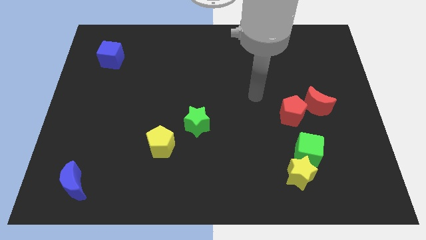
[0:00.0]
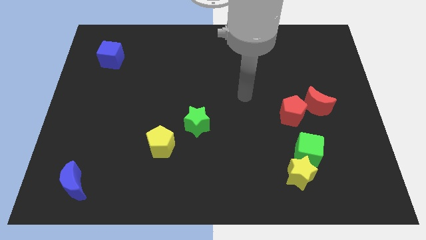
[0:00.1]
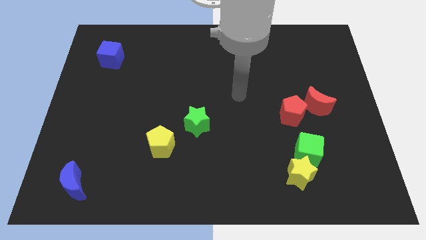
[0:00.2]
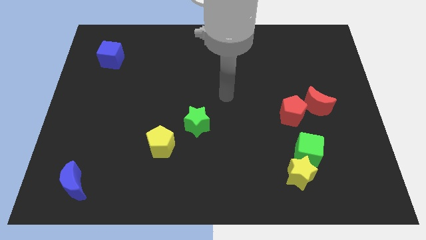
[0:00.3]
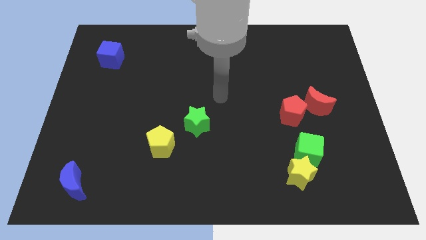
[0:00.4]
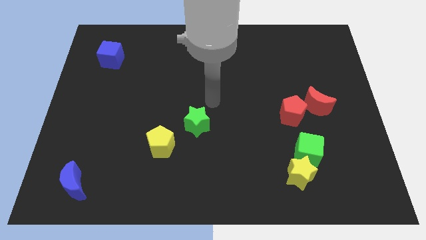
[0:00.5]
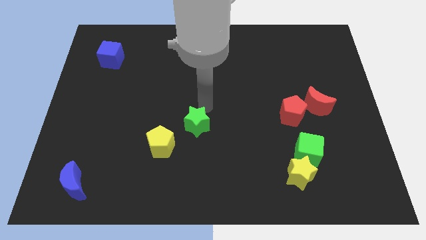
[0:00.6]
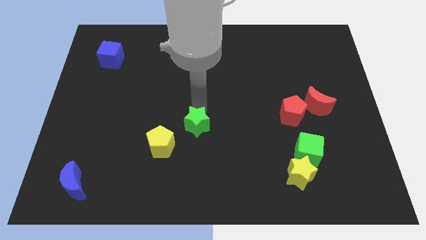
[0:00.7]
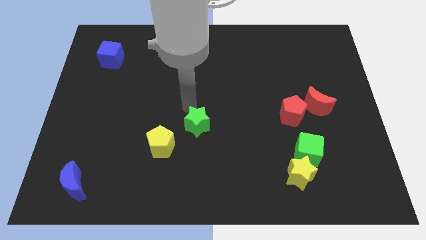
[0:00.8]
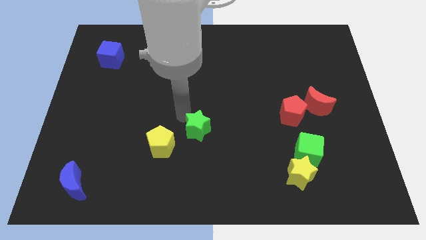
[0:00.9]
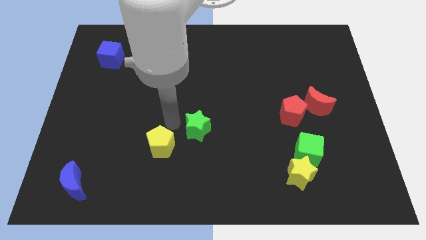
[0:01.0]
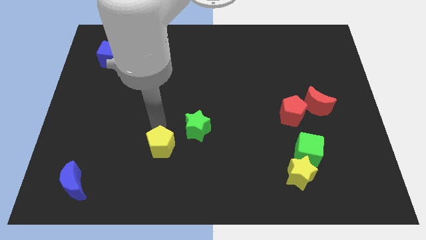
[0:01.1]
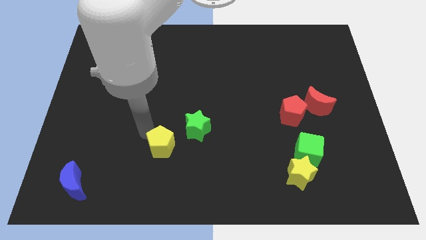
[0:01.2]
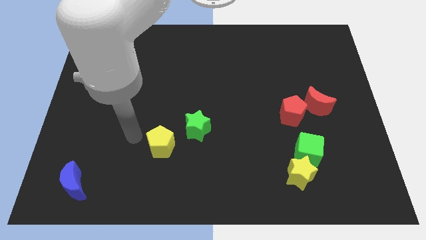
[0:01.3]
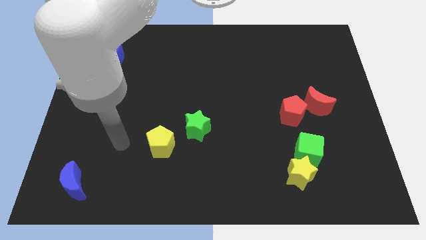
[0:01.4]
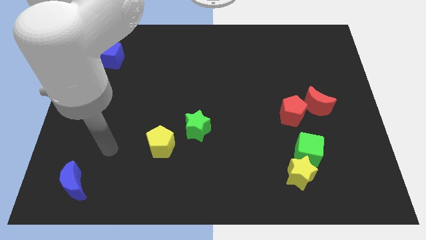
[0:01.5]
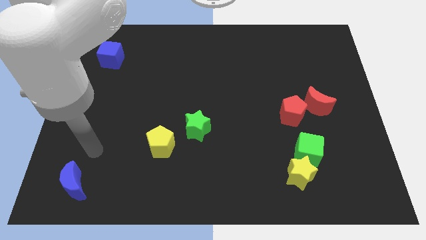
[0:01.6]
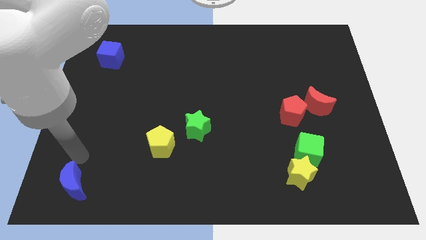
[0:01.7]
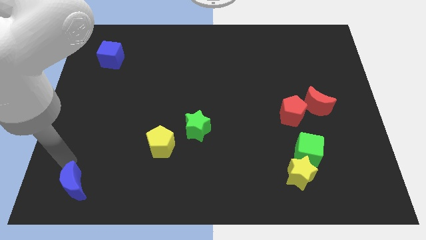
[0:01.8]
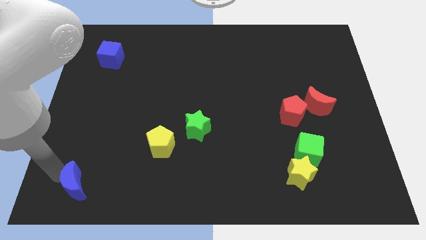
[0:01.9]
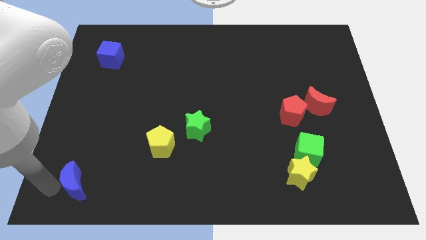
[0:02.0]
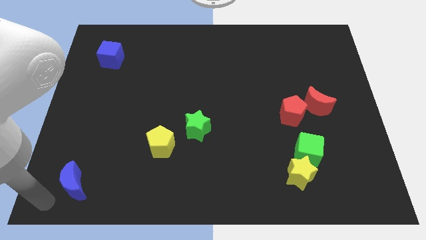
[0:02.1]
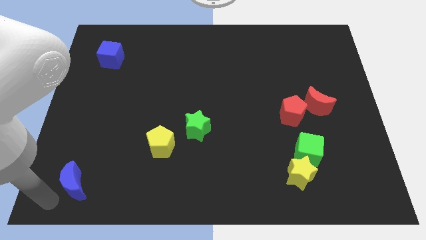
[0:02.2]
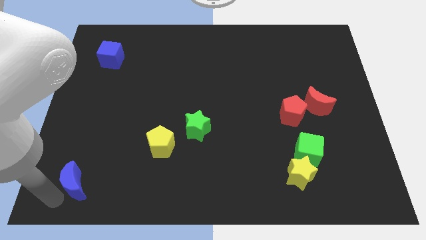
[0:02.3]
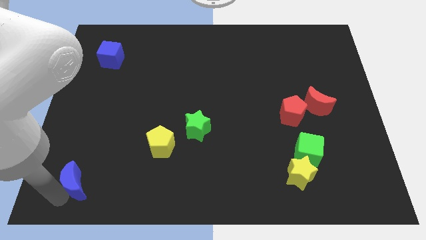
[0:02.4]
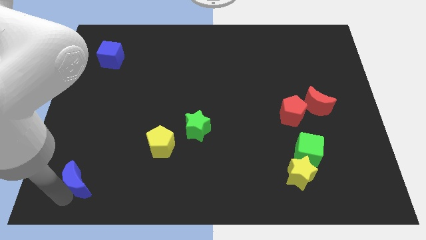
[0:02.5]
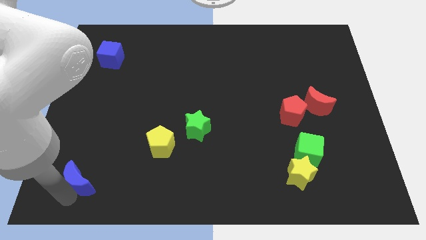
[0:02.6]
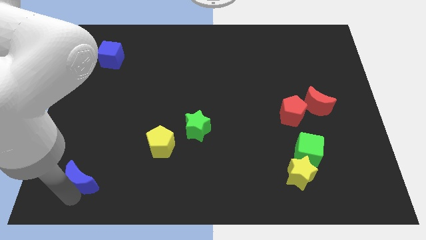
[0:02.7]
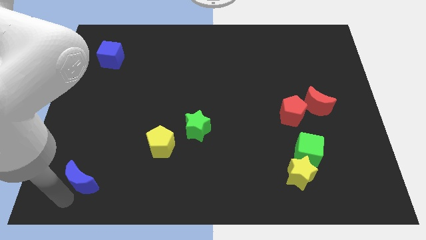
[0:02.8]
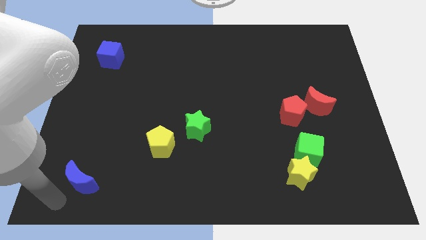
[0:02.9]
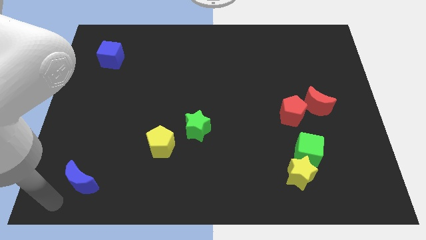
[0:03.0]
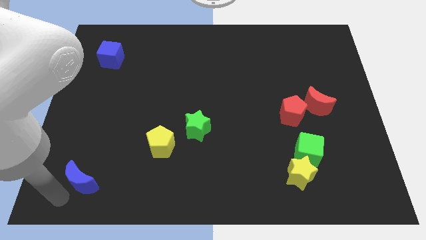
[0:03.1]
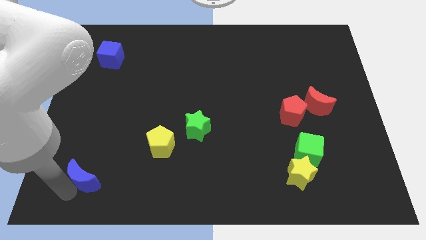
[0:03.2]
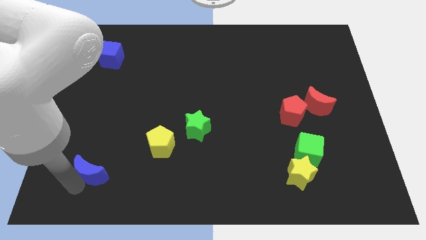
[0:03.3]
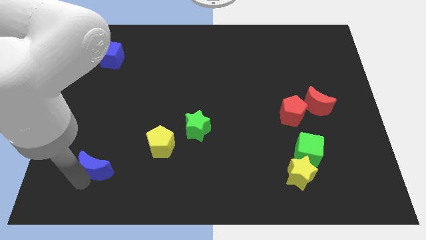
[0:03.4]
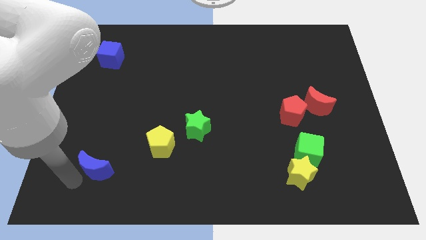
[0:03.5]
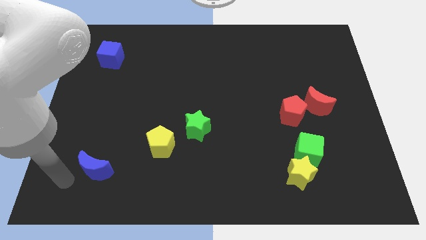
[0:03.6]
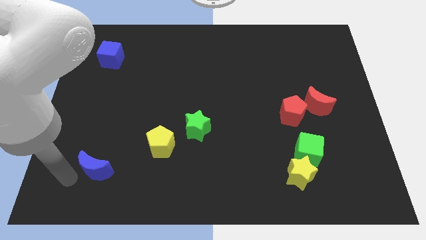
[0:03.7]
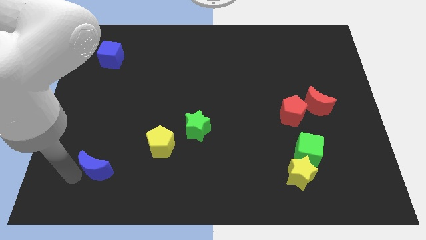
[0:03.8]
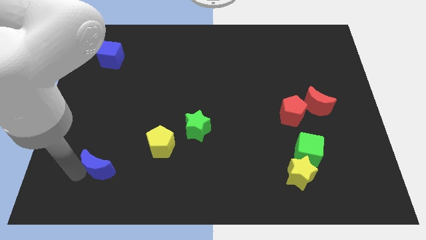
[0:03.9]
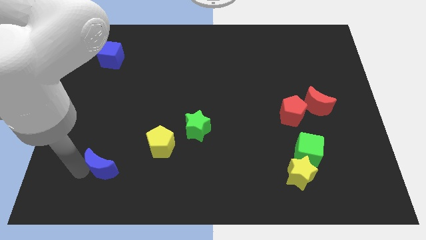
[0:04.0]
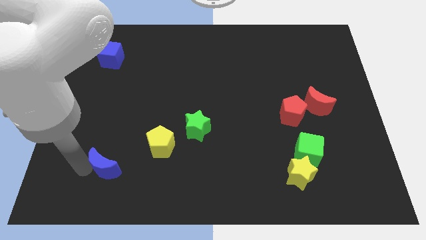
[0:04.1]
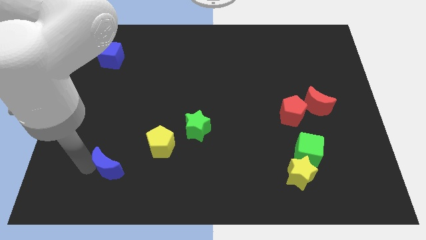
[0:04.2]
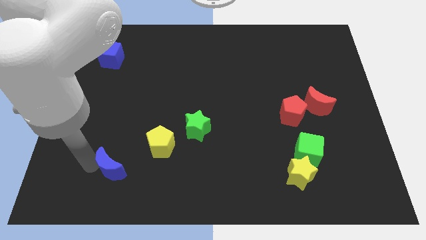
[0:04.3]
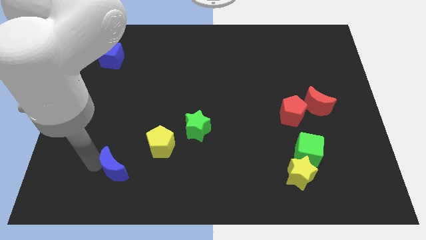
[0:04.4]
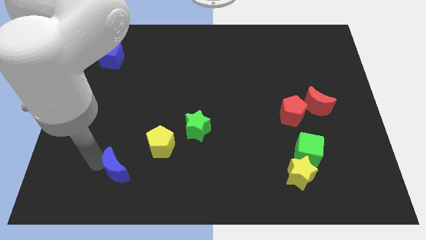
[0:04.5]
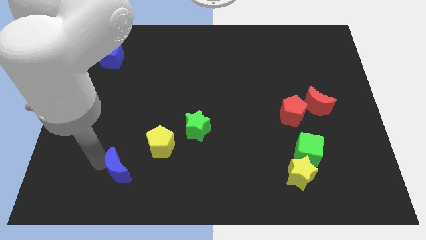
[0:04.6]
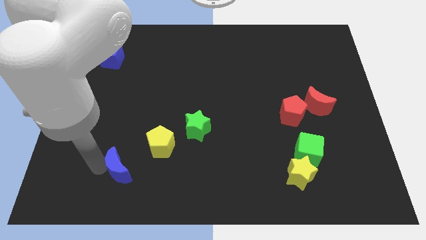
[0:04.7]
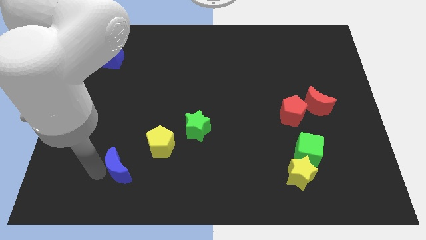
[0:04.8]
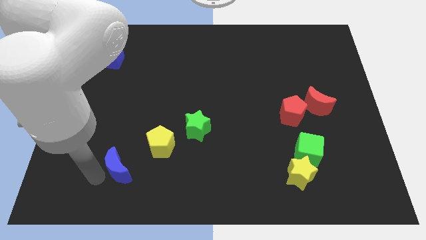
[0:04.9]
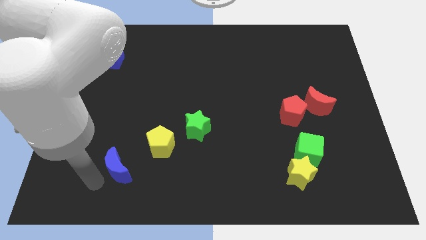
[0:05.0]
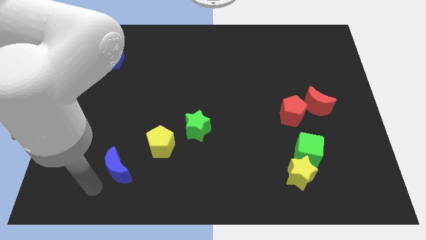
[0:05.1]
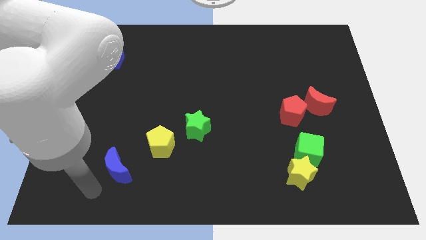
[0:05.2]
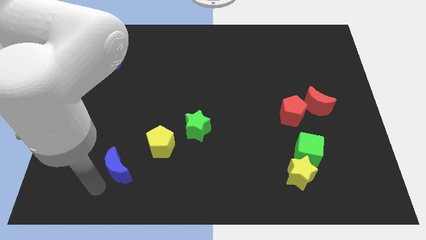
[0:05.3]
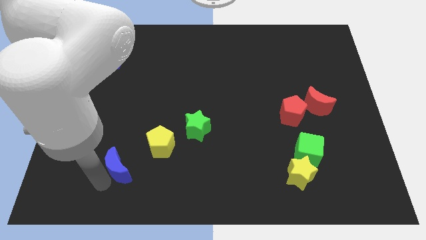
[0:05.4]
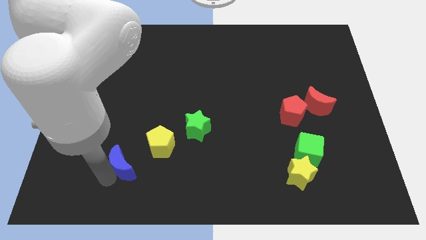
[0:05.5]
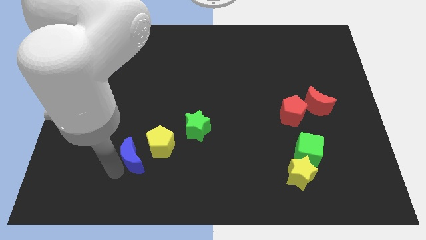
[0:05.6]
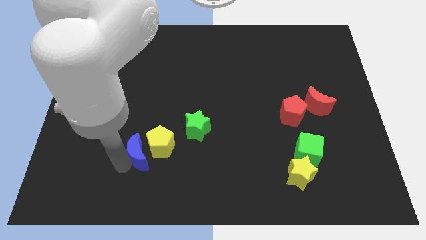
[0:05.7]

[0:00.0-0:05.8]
slide the blue moon close to the yellow pentagon

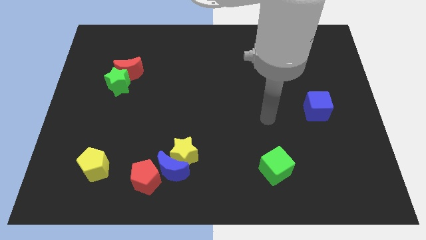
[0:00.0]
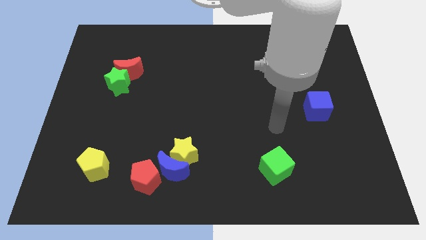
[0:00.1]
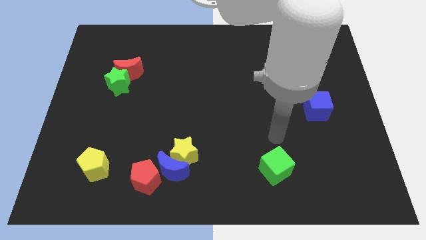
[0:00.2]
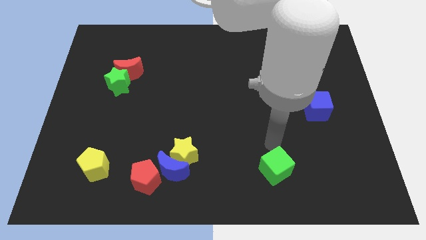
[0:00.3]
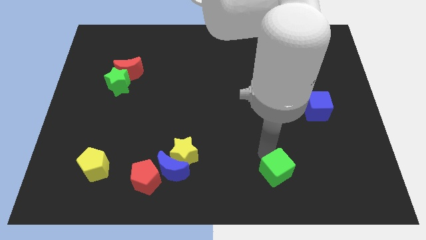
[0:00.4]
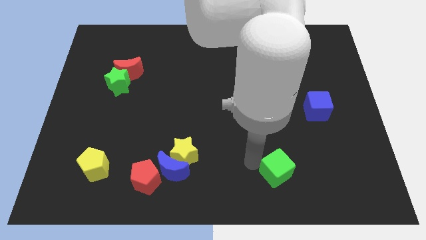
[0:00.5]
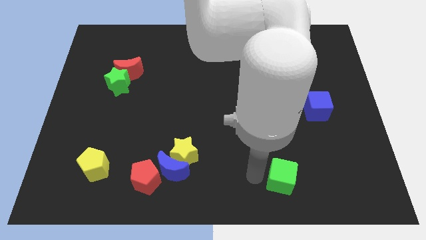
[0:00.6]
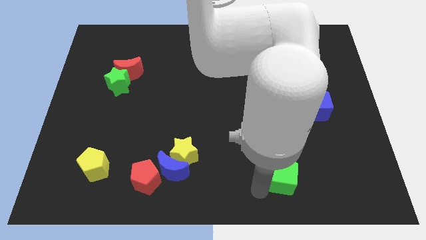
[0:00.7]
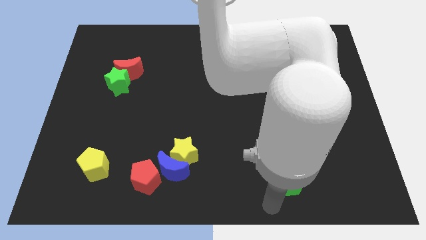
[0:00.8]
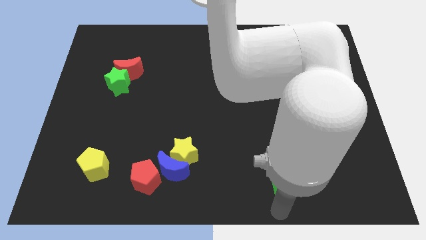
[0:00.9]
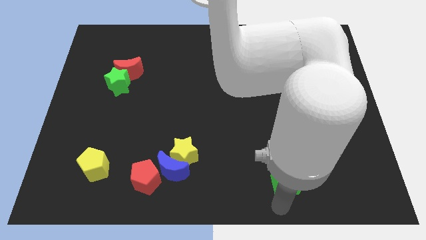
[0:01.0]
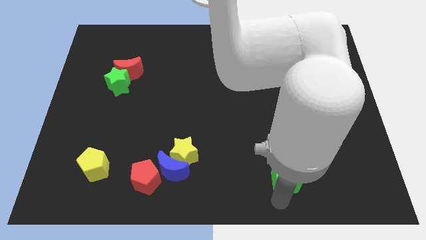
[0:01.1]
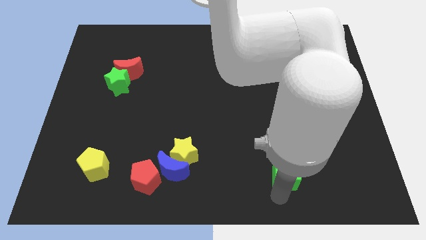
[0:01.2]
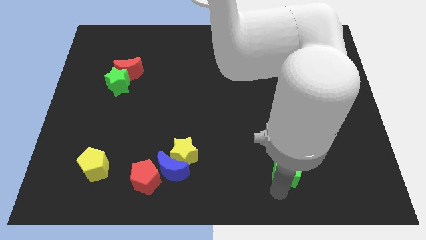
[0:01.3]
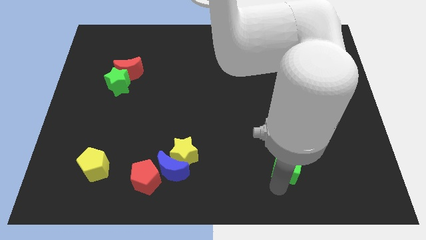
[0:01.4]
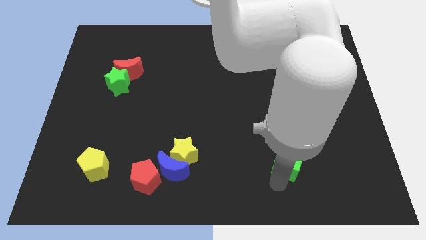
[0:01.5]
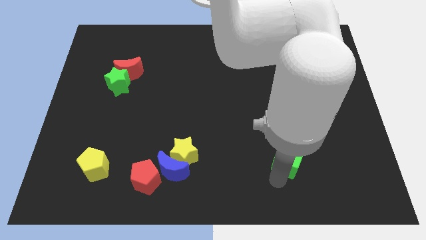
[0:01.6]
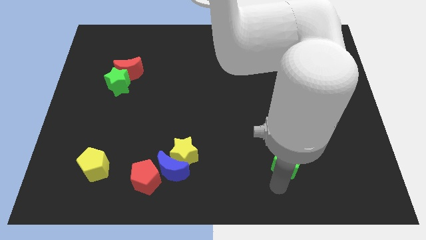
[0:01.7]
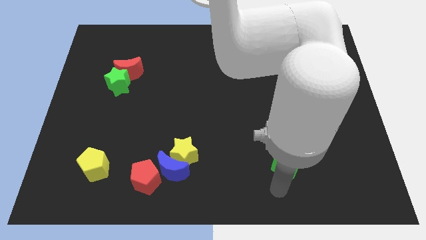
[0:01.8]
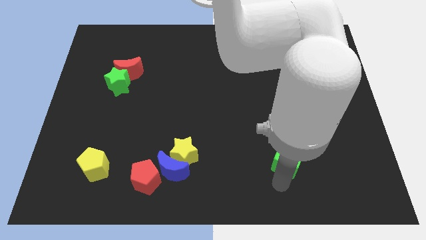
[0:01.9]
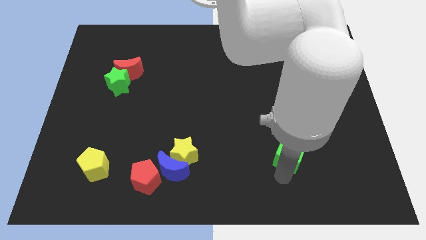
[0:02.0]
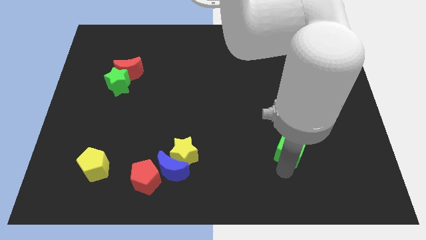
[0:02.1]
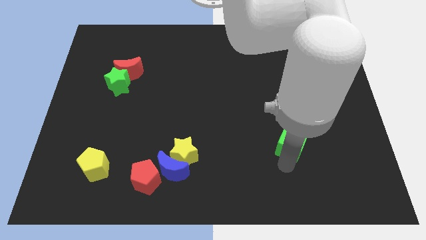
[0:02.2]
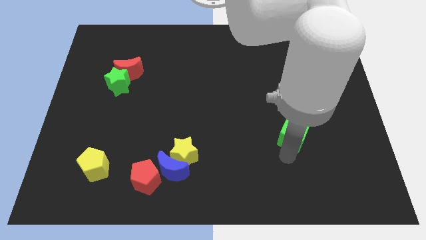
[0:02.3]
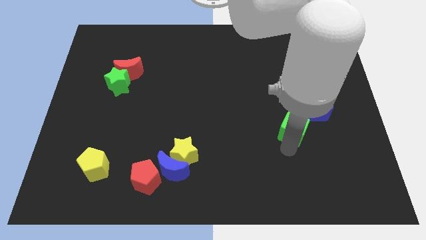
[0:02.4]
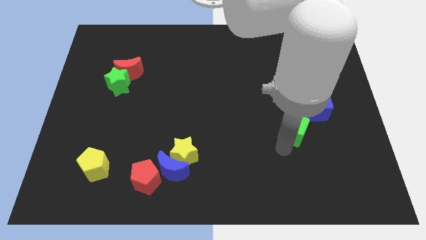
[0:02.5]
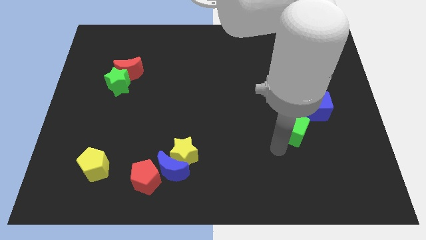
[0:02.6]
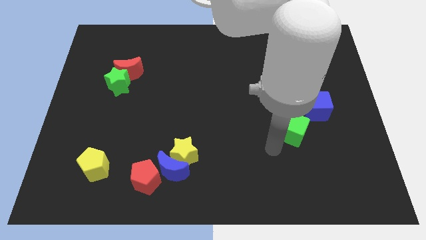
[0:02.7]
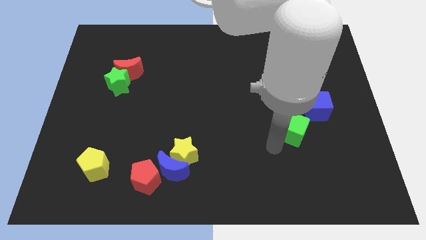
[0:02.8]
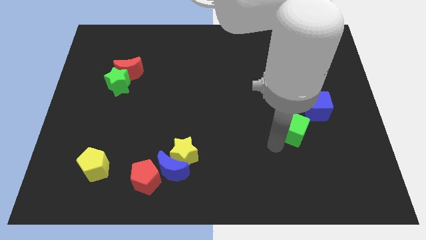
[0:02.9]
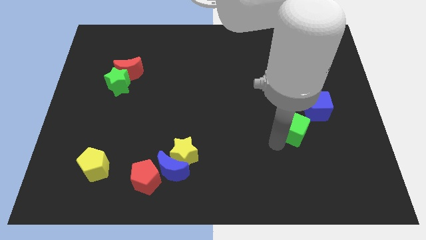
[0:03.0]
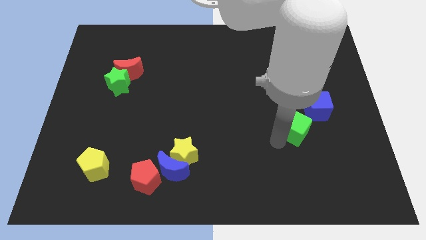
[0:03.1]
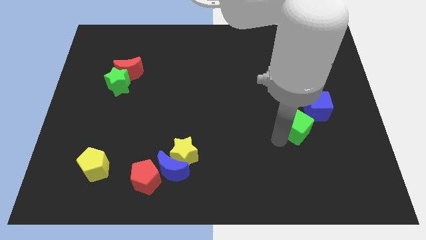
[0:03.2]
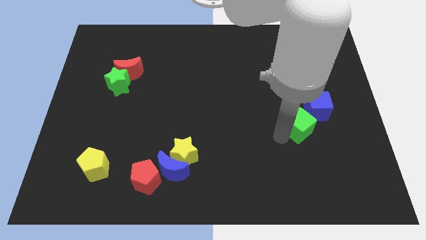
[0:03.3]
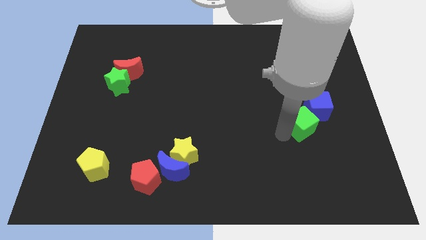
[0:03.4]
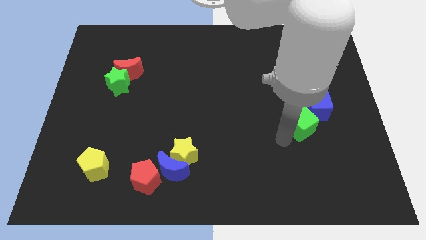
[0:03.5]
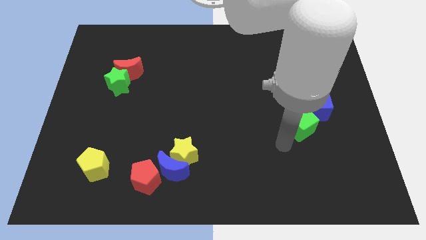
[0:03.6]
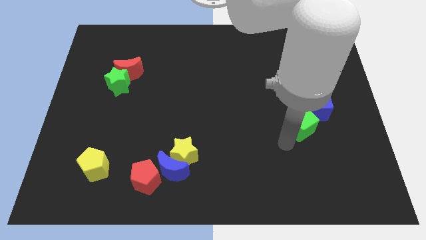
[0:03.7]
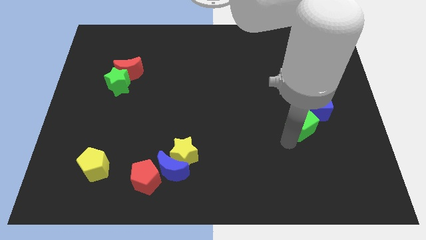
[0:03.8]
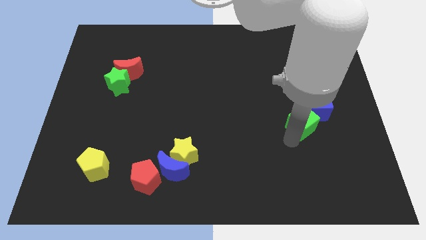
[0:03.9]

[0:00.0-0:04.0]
move the green cube towards the blue cube
